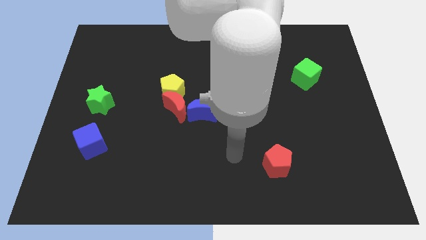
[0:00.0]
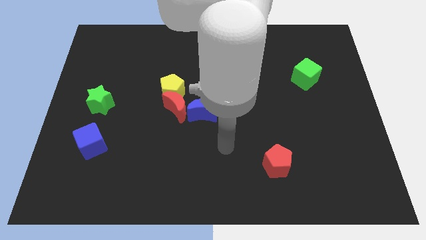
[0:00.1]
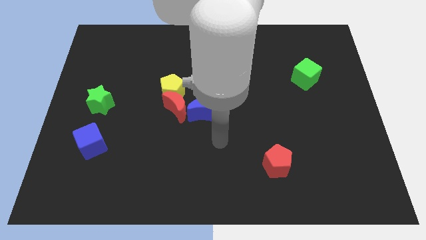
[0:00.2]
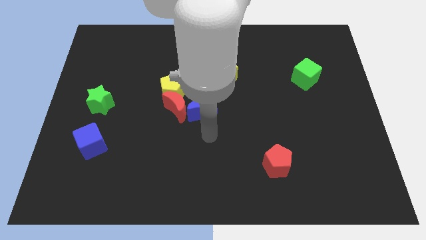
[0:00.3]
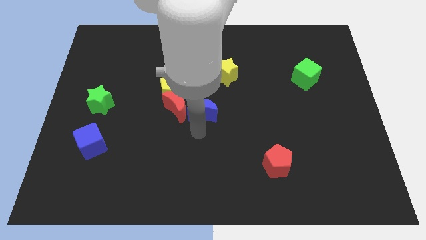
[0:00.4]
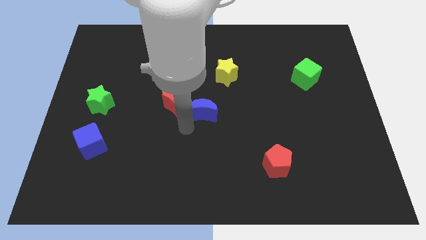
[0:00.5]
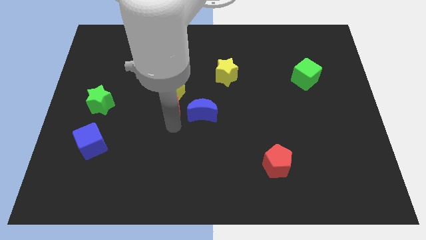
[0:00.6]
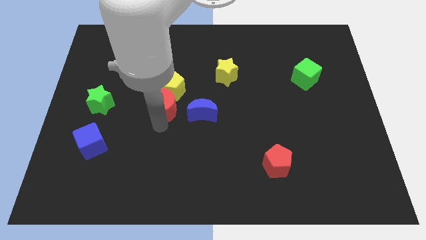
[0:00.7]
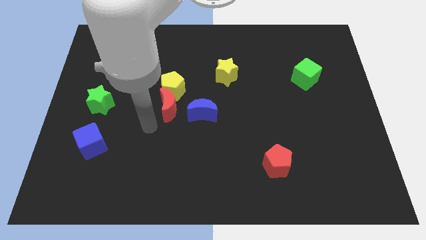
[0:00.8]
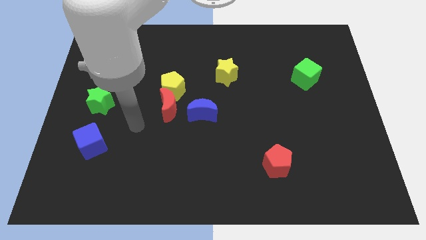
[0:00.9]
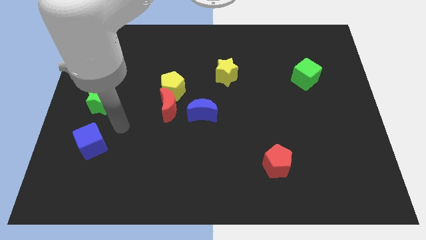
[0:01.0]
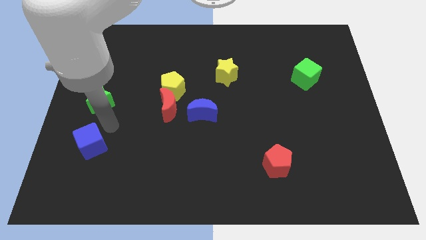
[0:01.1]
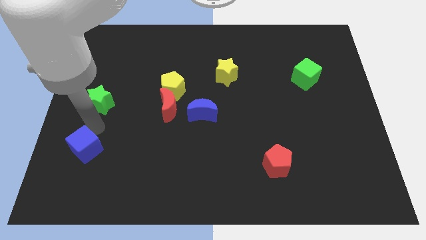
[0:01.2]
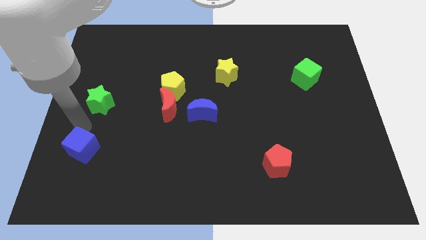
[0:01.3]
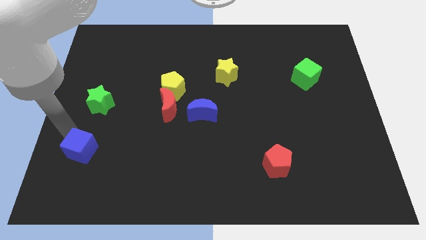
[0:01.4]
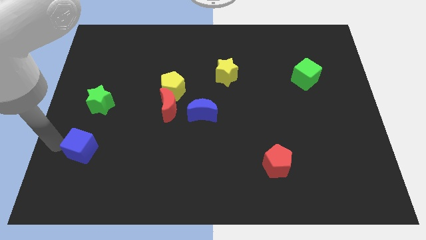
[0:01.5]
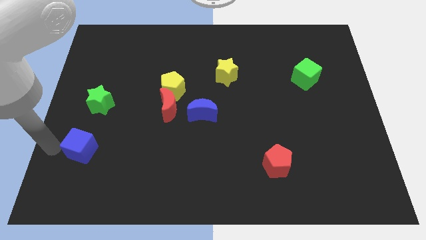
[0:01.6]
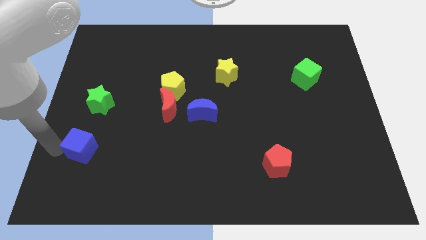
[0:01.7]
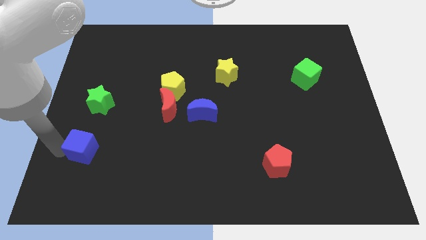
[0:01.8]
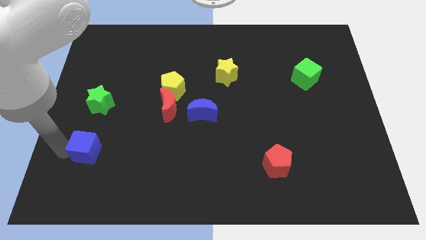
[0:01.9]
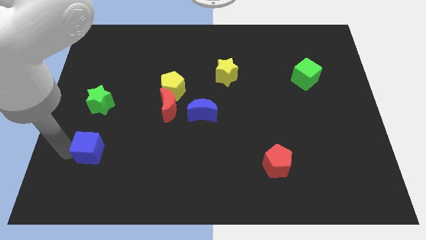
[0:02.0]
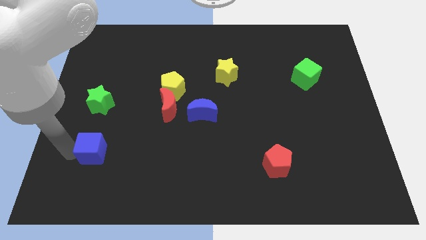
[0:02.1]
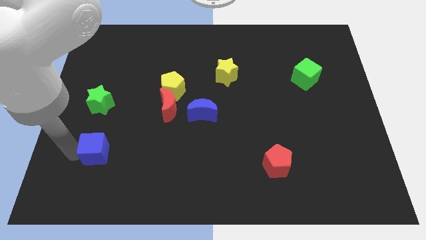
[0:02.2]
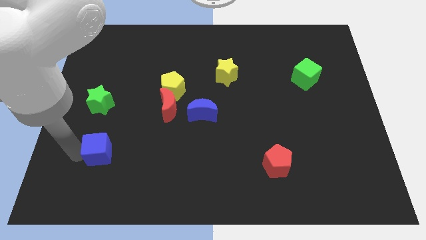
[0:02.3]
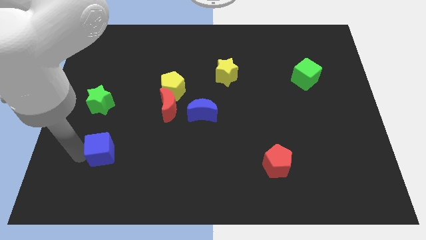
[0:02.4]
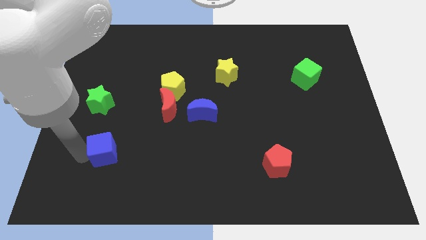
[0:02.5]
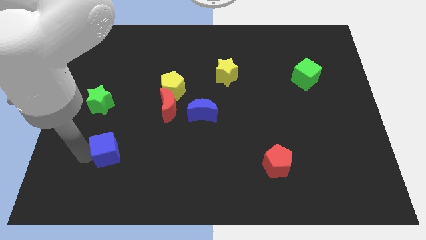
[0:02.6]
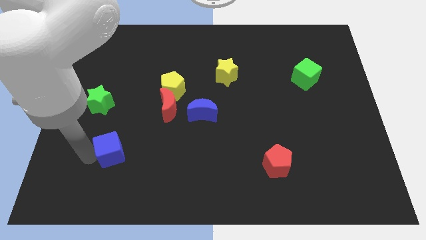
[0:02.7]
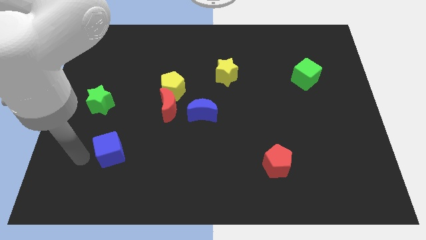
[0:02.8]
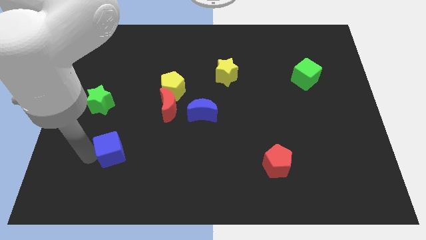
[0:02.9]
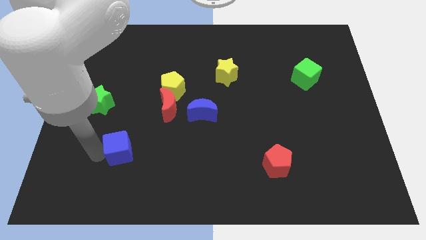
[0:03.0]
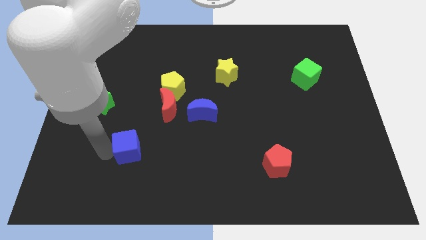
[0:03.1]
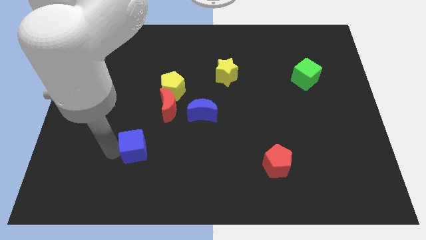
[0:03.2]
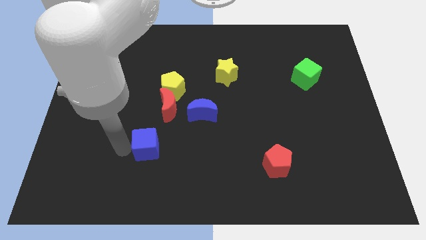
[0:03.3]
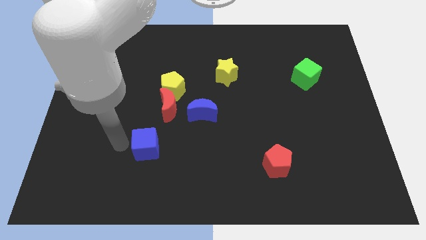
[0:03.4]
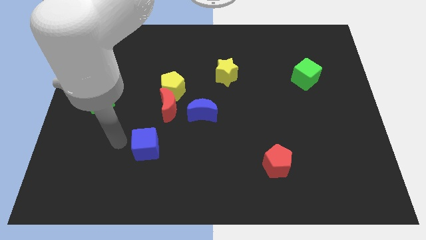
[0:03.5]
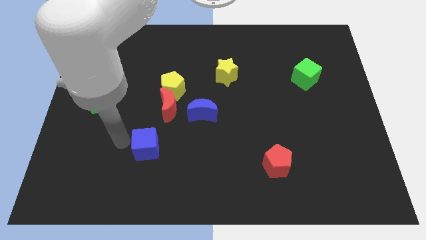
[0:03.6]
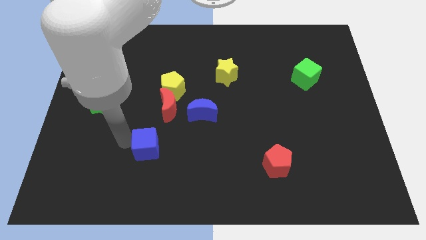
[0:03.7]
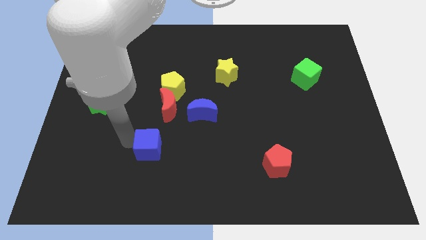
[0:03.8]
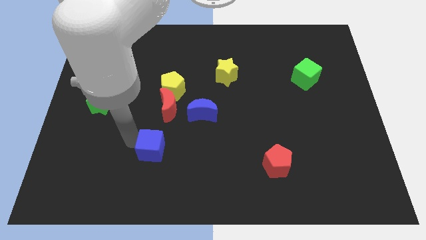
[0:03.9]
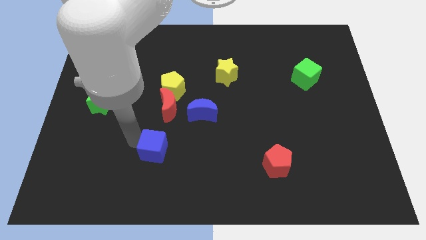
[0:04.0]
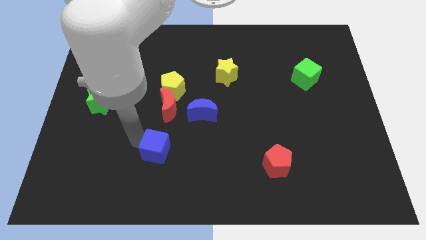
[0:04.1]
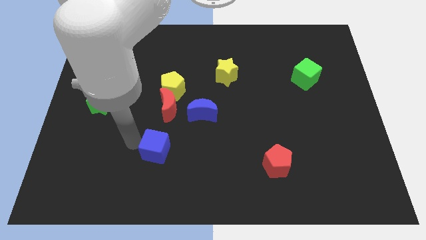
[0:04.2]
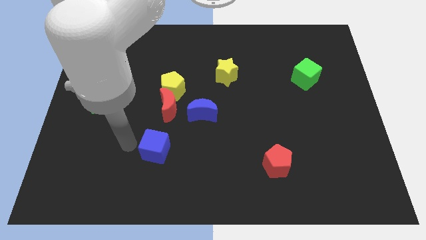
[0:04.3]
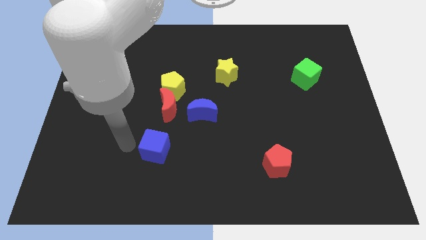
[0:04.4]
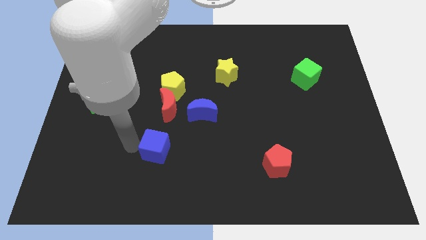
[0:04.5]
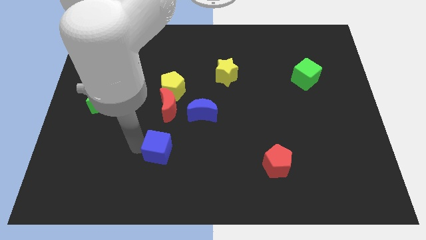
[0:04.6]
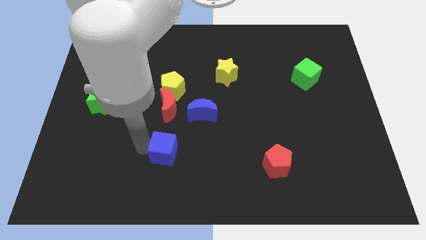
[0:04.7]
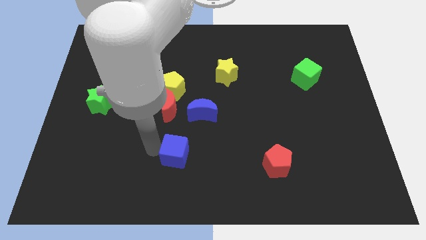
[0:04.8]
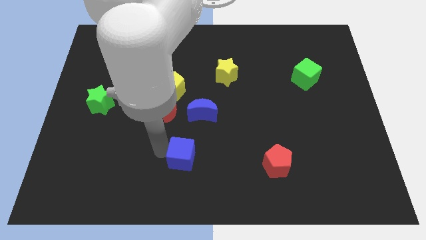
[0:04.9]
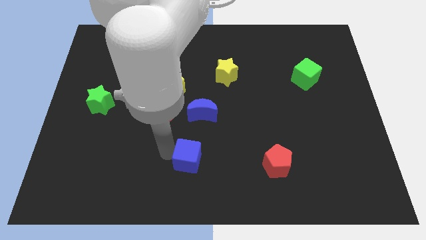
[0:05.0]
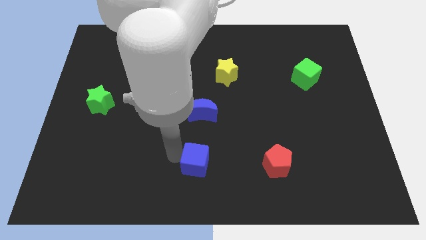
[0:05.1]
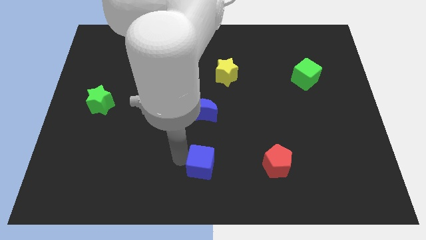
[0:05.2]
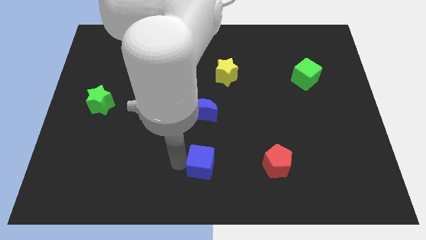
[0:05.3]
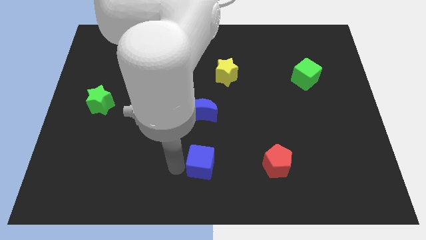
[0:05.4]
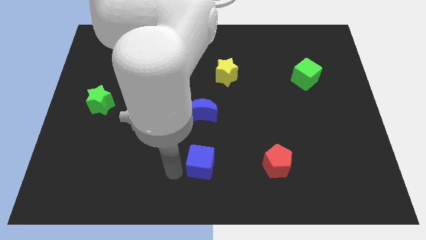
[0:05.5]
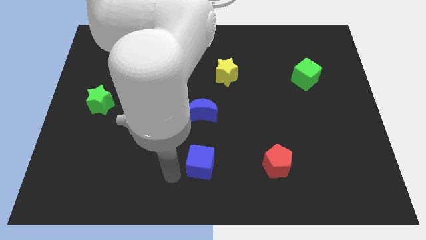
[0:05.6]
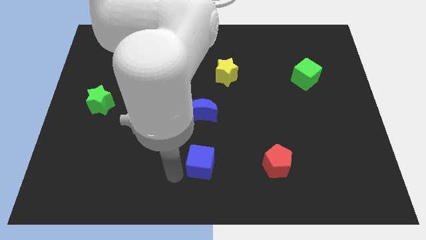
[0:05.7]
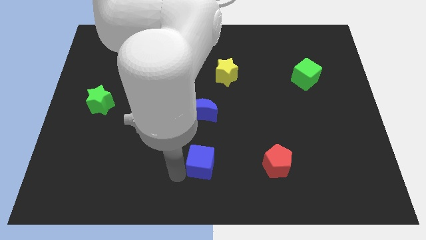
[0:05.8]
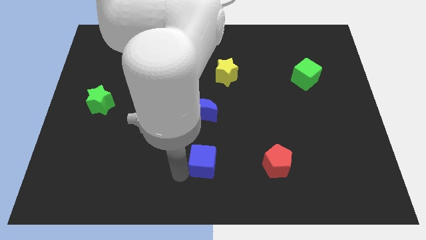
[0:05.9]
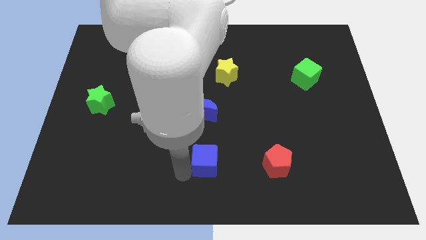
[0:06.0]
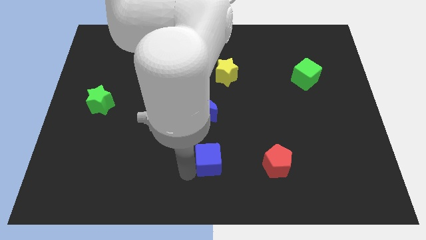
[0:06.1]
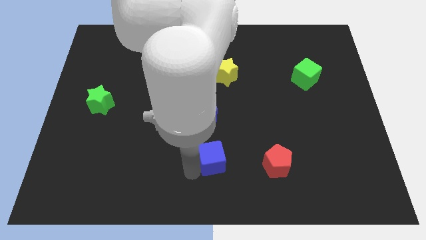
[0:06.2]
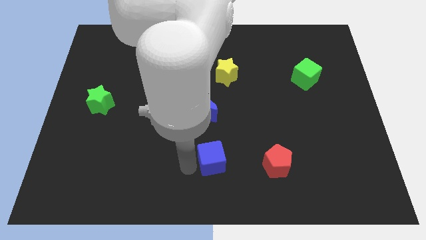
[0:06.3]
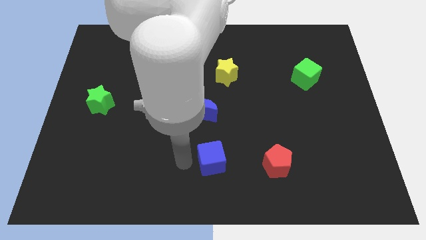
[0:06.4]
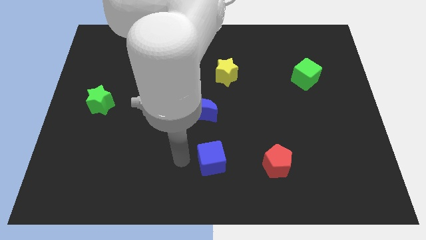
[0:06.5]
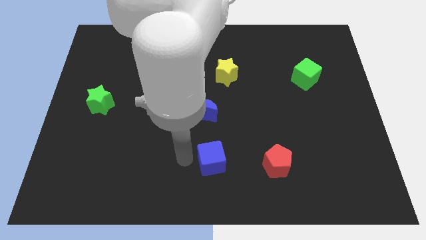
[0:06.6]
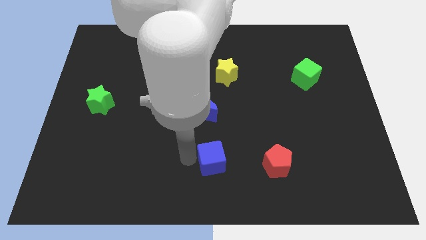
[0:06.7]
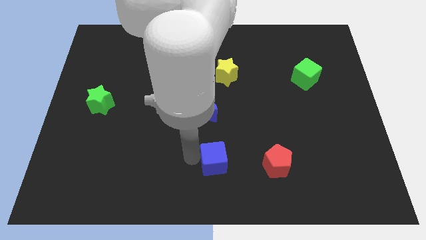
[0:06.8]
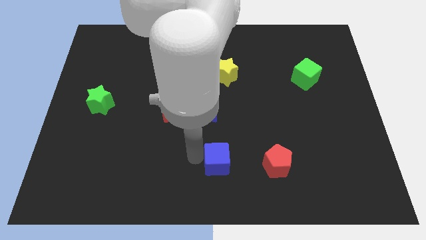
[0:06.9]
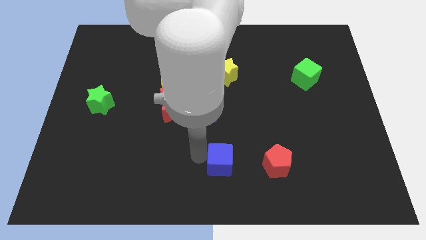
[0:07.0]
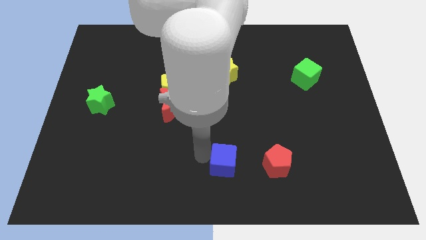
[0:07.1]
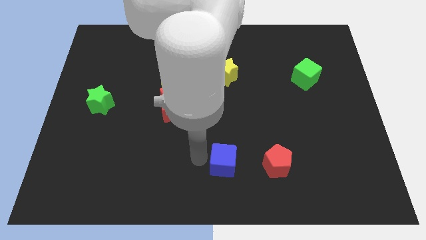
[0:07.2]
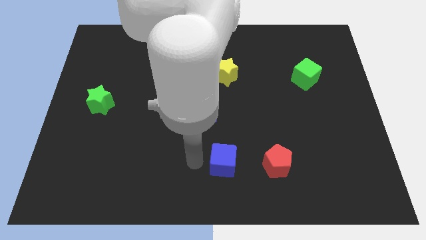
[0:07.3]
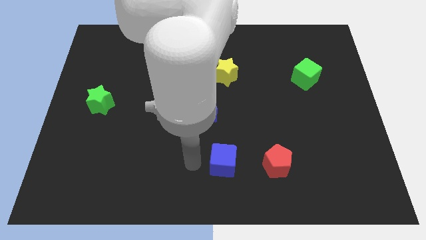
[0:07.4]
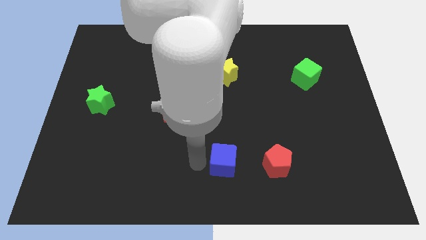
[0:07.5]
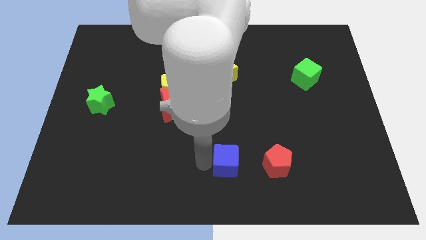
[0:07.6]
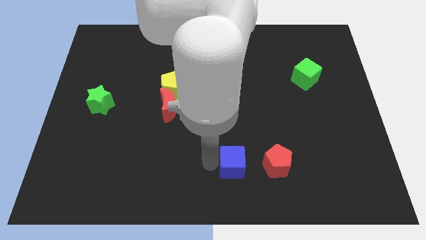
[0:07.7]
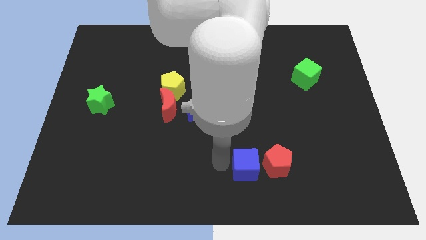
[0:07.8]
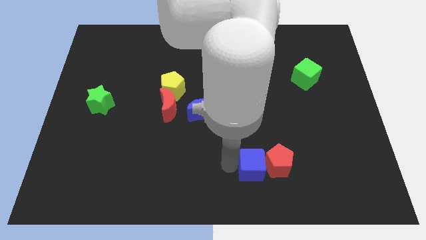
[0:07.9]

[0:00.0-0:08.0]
slide the blue cube close to the red pentagon
